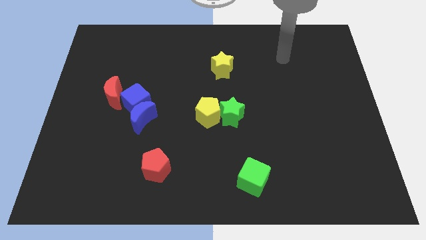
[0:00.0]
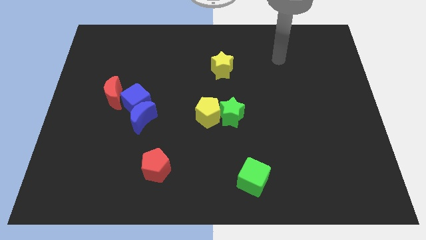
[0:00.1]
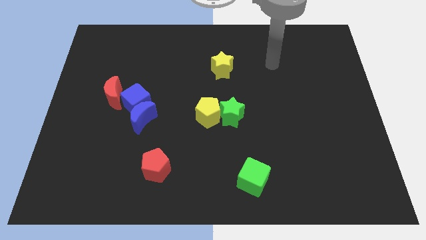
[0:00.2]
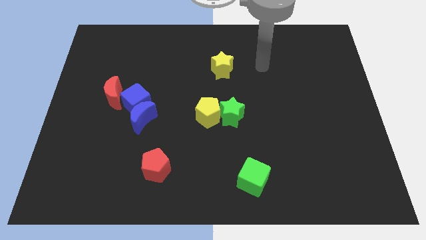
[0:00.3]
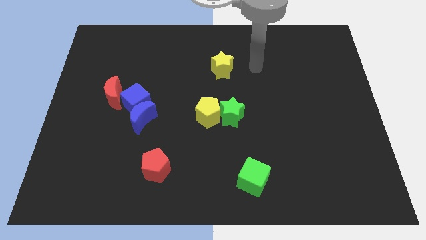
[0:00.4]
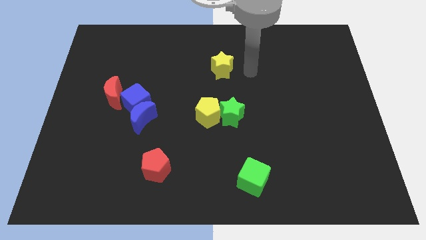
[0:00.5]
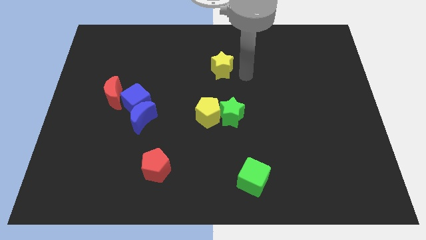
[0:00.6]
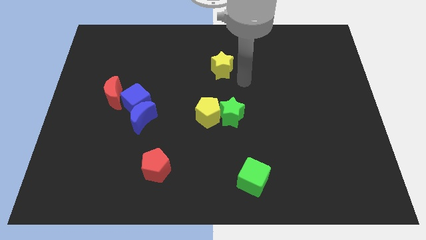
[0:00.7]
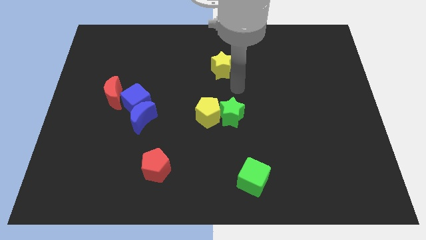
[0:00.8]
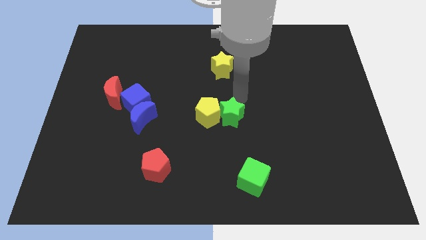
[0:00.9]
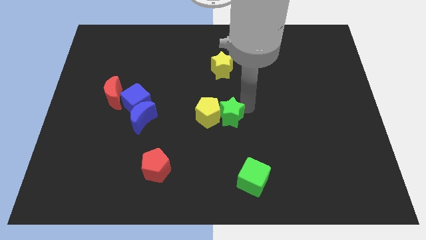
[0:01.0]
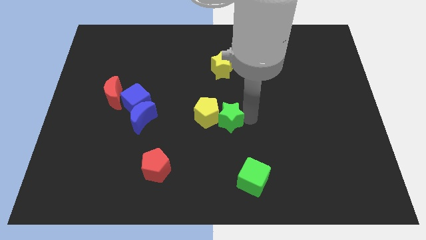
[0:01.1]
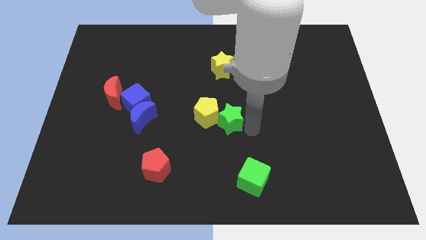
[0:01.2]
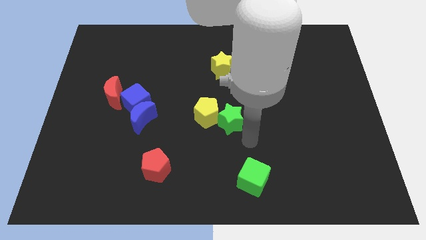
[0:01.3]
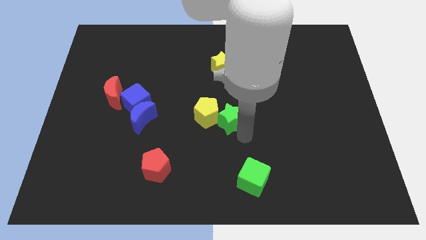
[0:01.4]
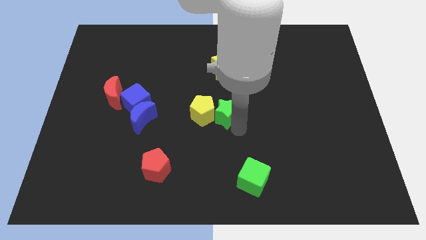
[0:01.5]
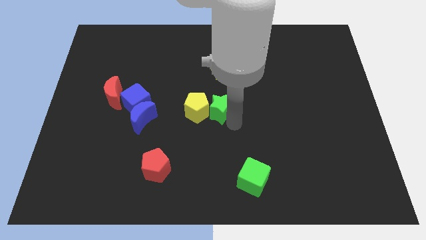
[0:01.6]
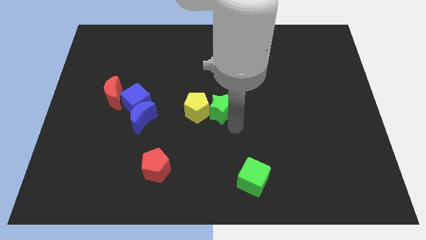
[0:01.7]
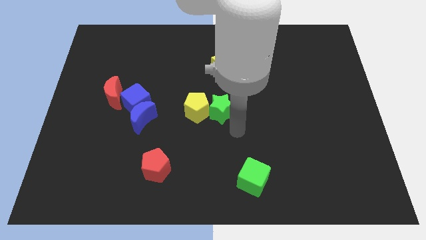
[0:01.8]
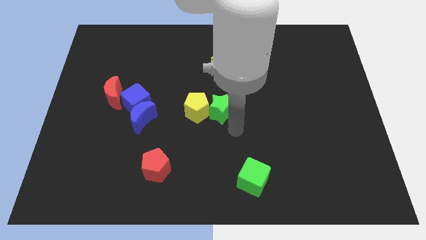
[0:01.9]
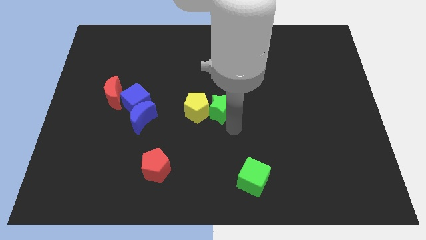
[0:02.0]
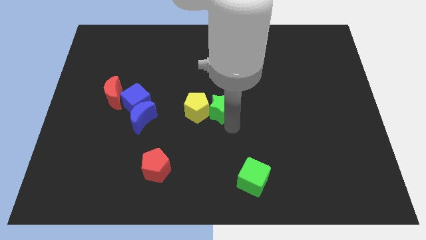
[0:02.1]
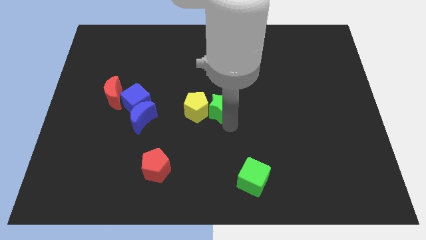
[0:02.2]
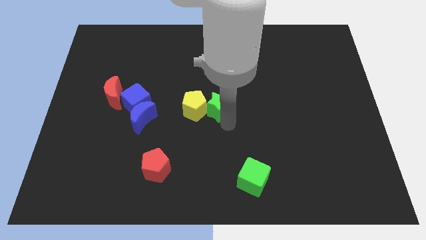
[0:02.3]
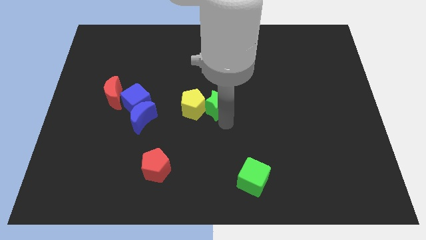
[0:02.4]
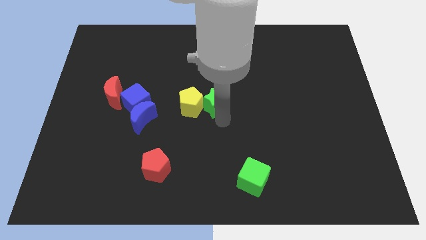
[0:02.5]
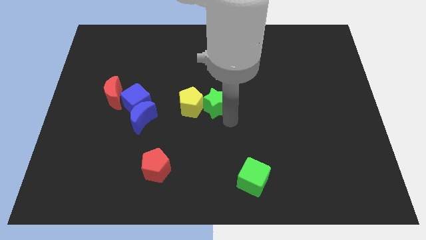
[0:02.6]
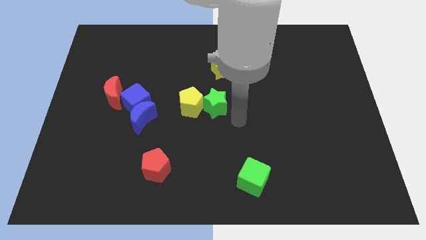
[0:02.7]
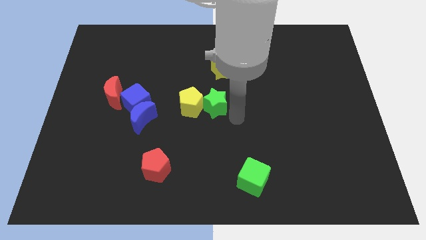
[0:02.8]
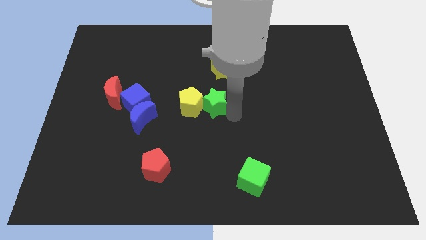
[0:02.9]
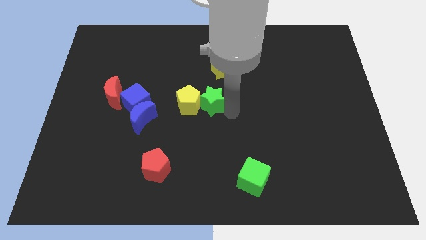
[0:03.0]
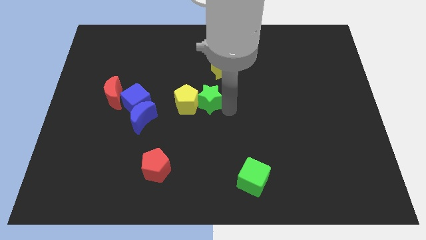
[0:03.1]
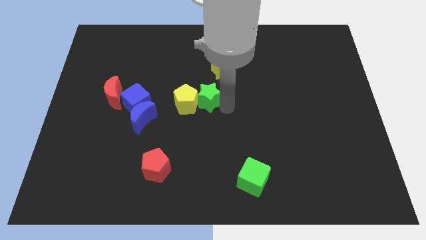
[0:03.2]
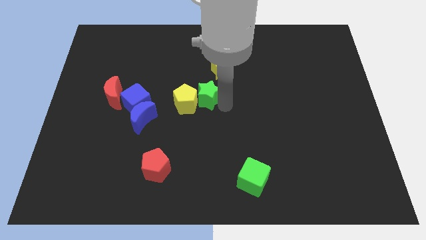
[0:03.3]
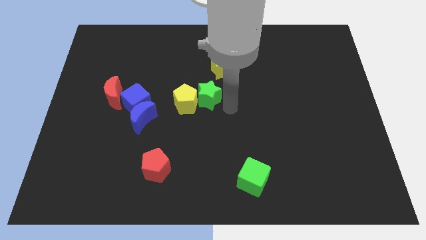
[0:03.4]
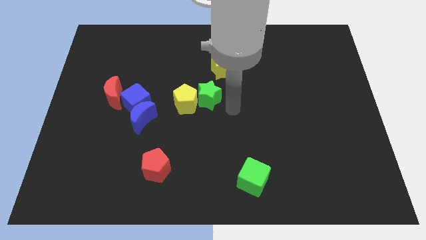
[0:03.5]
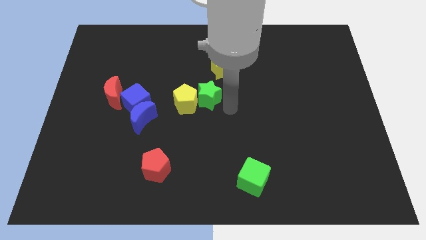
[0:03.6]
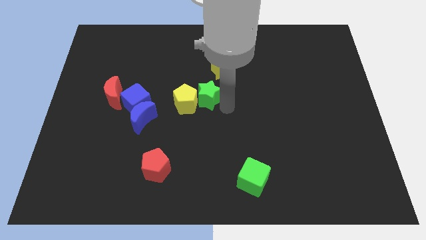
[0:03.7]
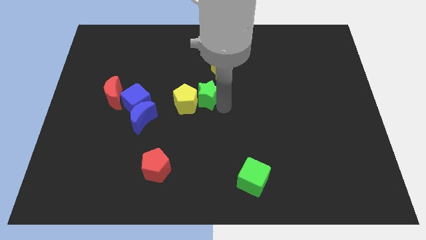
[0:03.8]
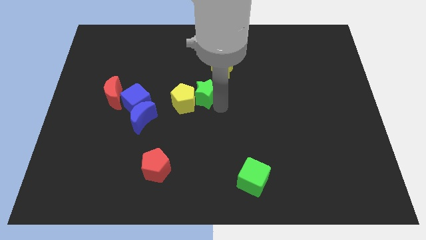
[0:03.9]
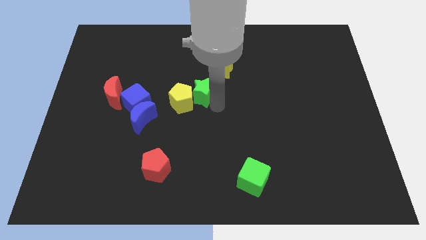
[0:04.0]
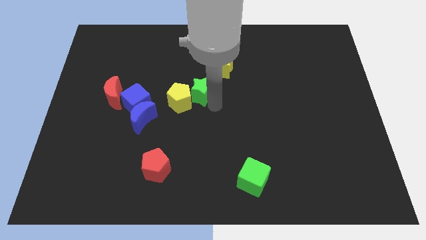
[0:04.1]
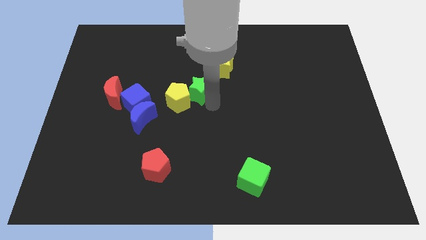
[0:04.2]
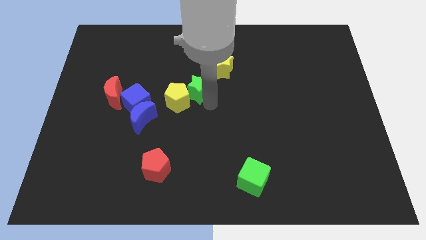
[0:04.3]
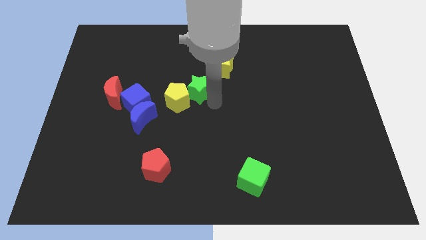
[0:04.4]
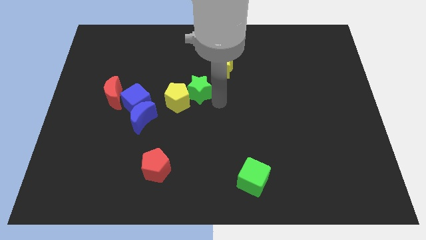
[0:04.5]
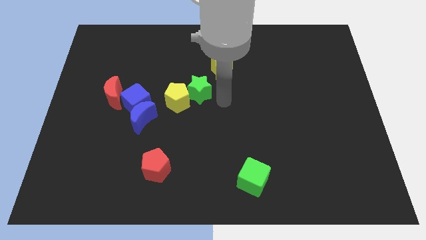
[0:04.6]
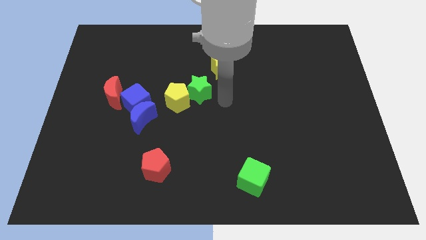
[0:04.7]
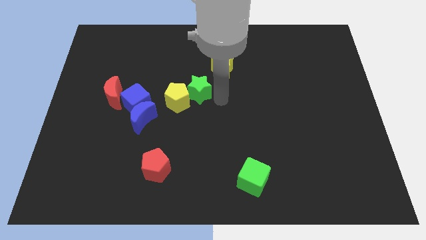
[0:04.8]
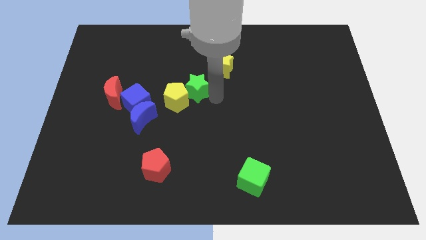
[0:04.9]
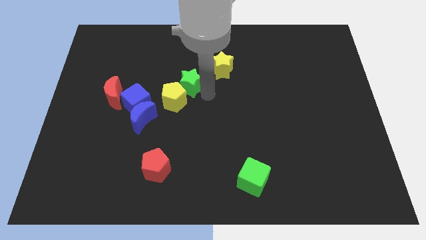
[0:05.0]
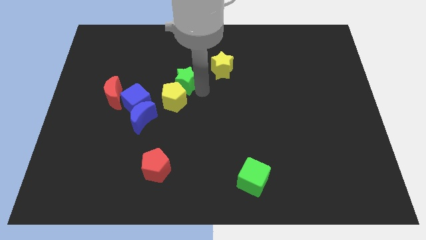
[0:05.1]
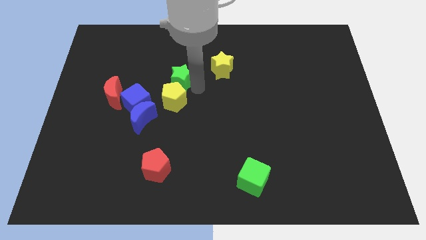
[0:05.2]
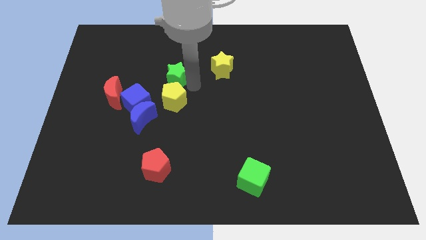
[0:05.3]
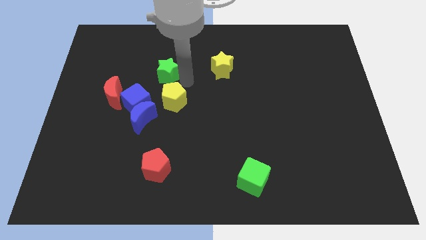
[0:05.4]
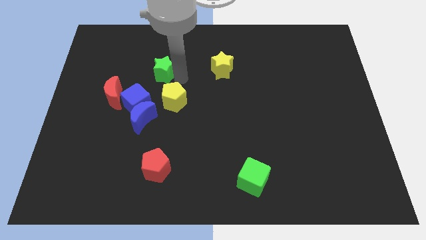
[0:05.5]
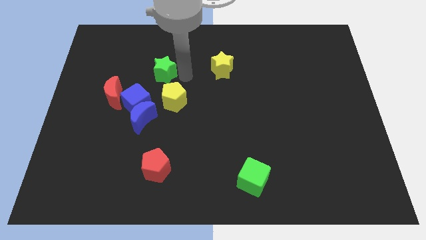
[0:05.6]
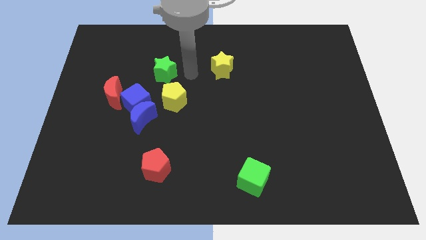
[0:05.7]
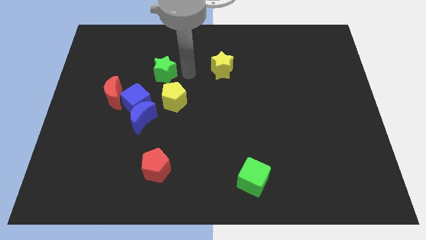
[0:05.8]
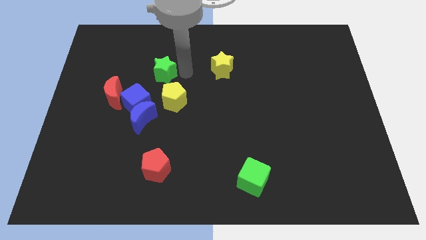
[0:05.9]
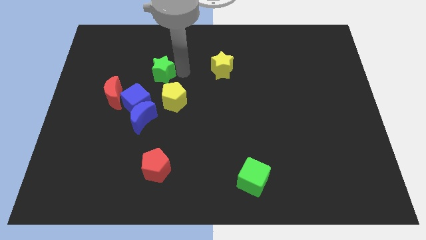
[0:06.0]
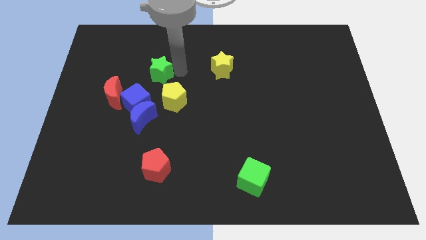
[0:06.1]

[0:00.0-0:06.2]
slide the green star to the top side of the blue cube
